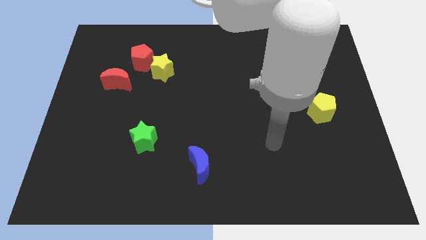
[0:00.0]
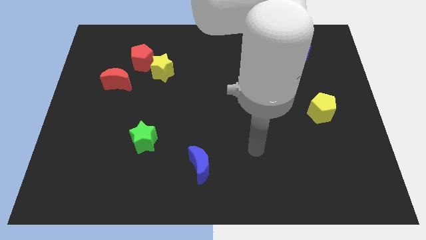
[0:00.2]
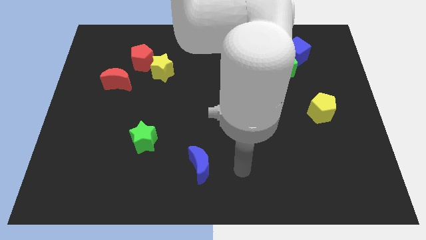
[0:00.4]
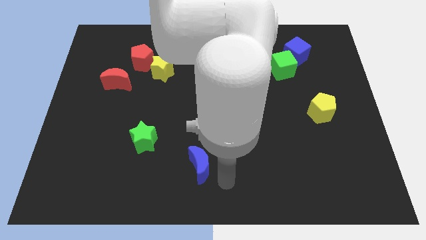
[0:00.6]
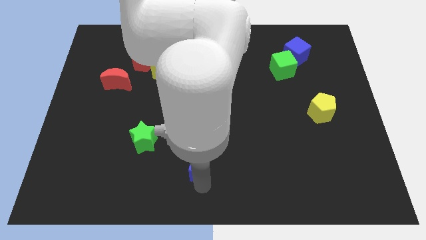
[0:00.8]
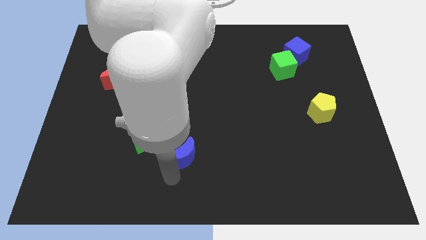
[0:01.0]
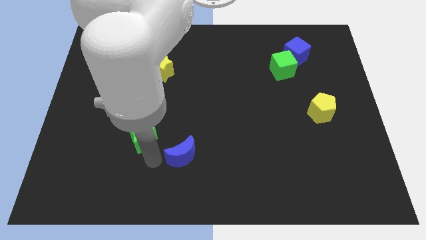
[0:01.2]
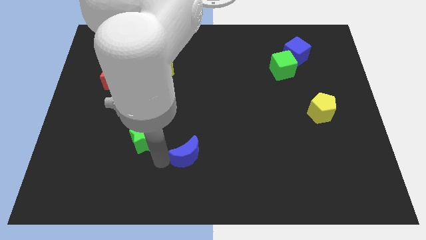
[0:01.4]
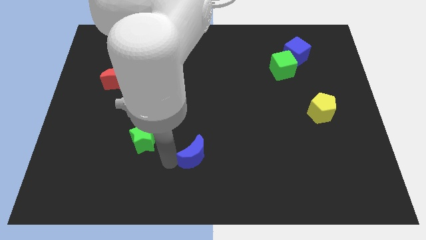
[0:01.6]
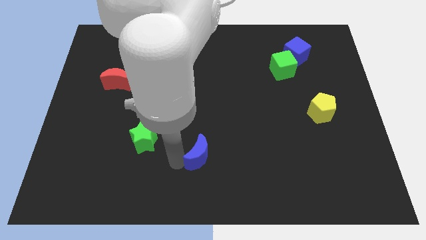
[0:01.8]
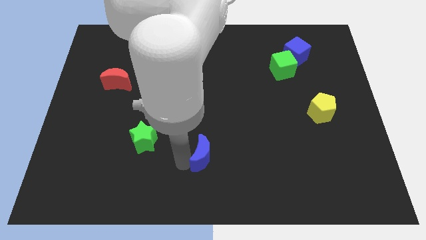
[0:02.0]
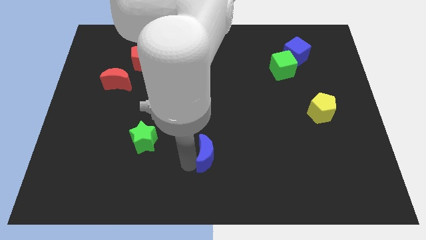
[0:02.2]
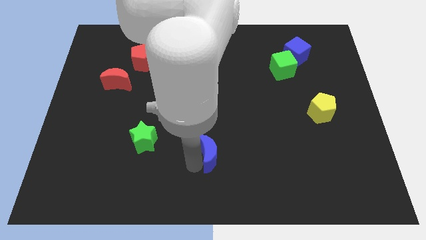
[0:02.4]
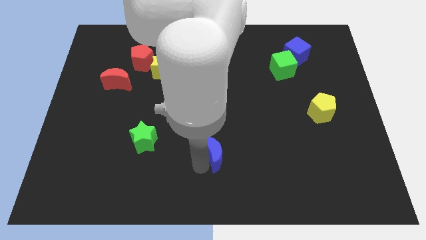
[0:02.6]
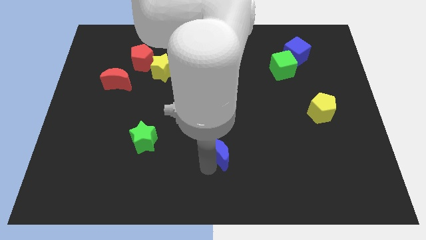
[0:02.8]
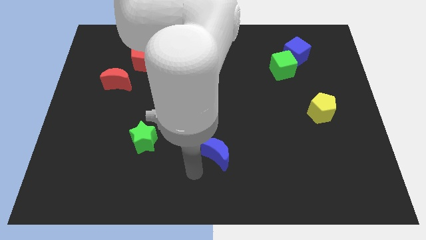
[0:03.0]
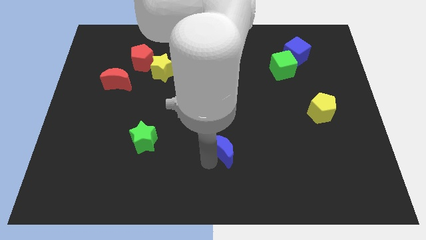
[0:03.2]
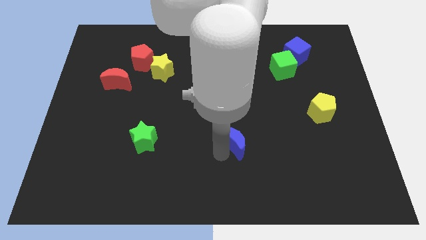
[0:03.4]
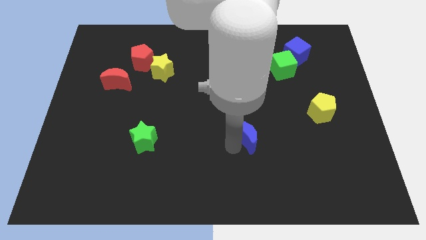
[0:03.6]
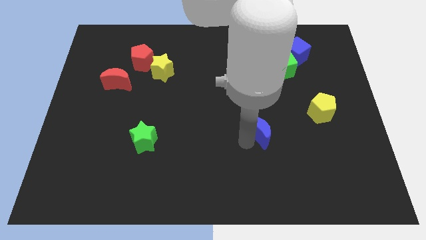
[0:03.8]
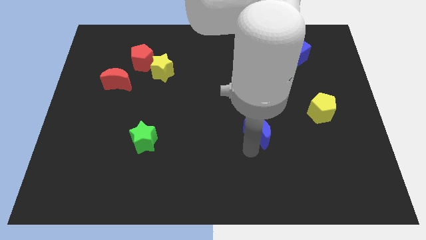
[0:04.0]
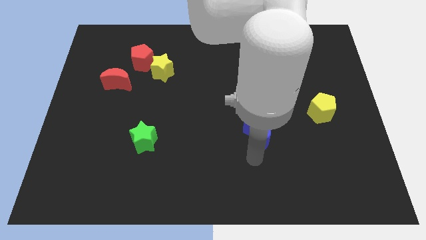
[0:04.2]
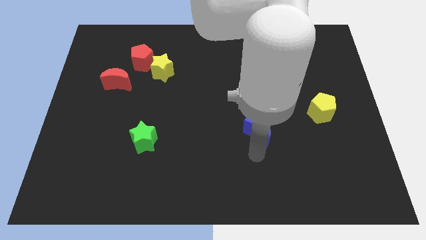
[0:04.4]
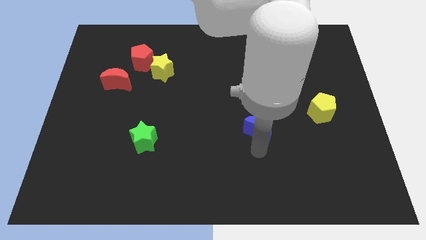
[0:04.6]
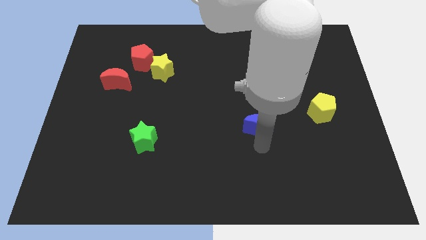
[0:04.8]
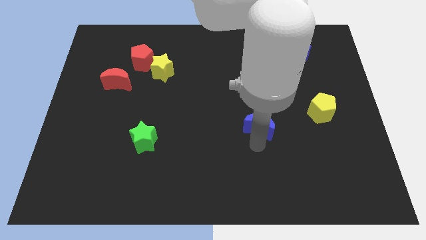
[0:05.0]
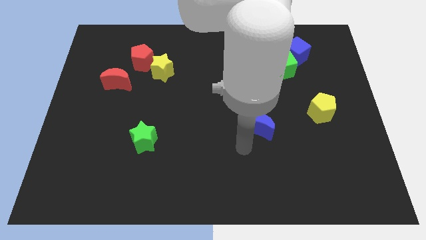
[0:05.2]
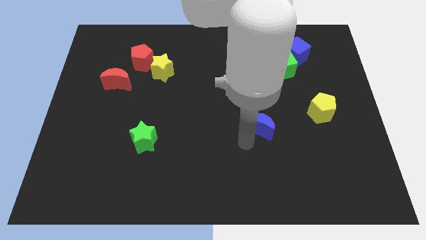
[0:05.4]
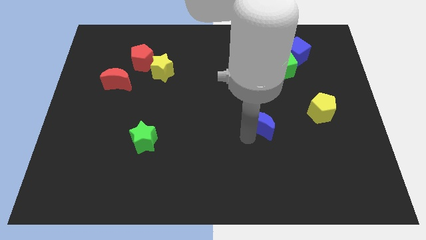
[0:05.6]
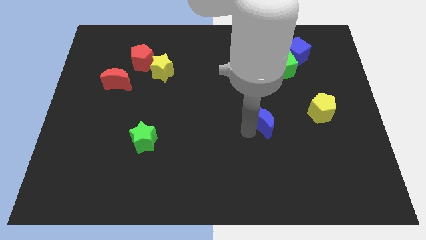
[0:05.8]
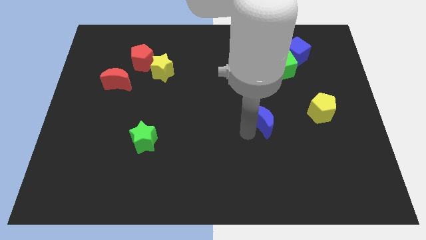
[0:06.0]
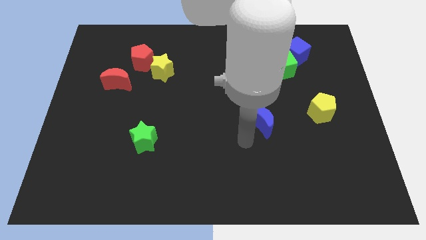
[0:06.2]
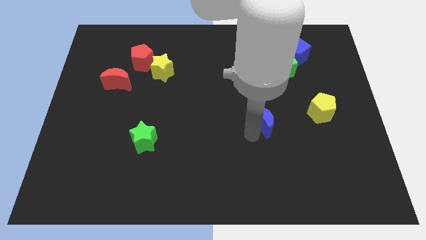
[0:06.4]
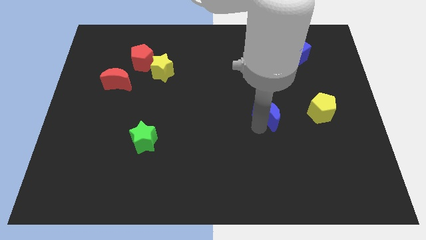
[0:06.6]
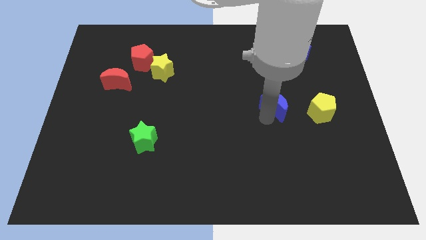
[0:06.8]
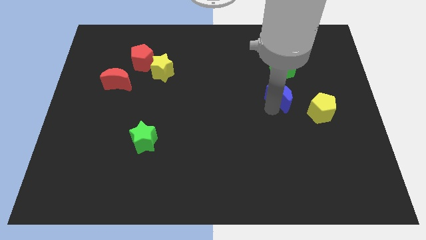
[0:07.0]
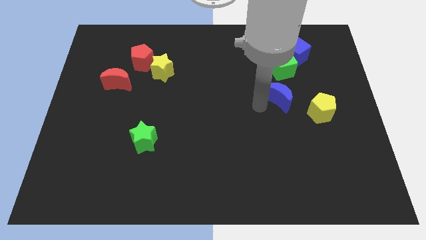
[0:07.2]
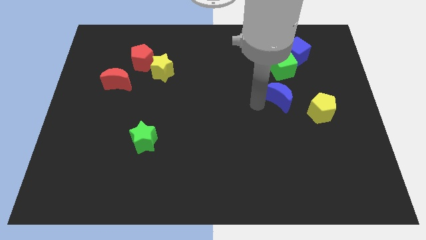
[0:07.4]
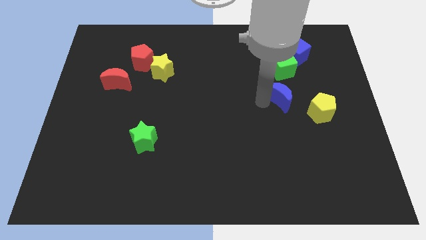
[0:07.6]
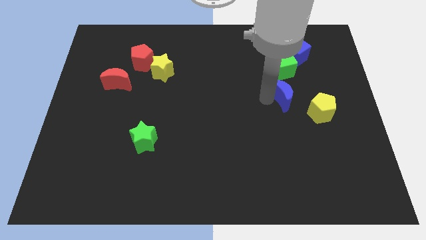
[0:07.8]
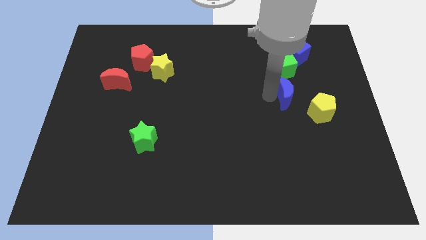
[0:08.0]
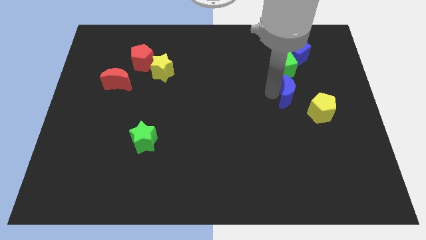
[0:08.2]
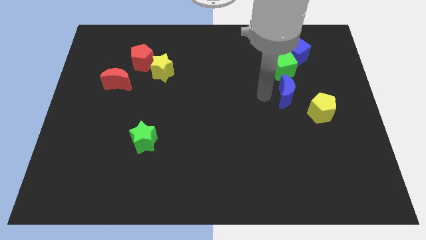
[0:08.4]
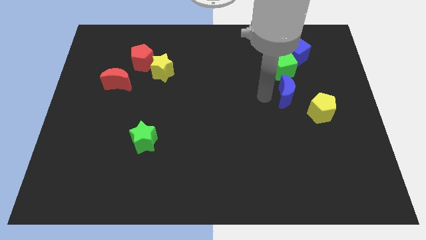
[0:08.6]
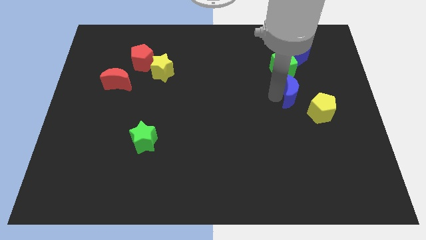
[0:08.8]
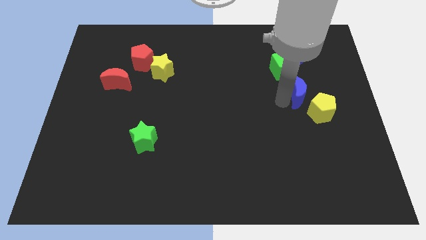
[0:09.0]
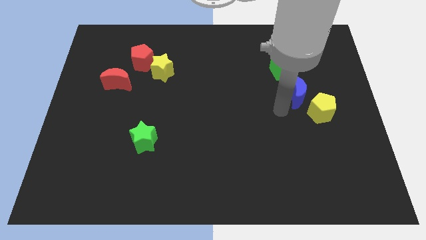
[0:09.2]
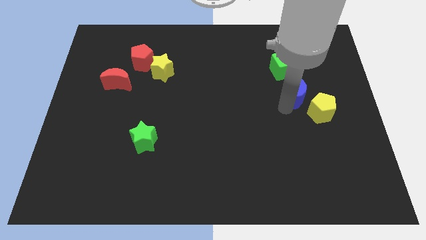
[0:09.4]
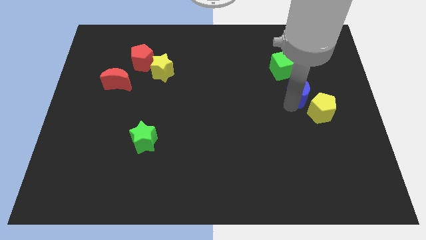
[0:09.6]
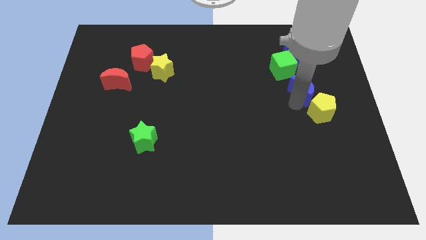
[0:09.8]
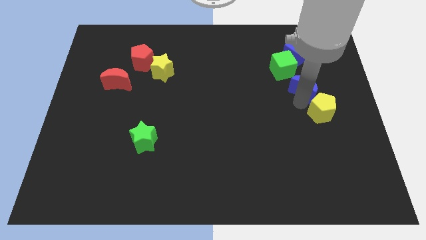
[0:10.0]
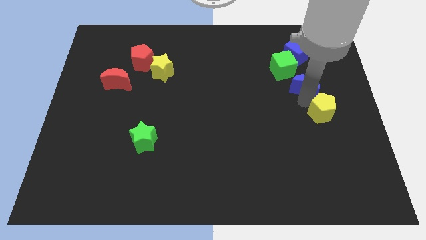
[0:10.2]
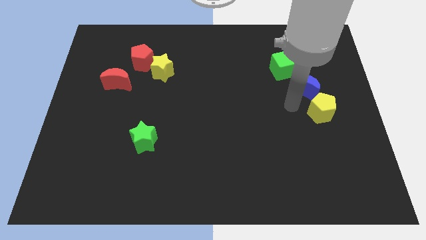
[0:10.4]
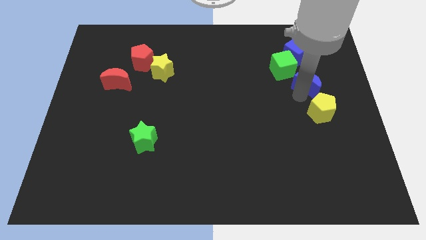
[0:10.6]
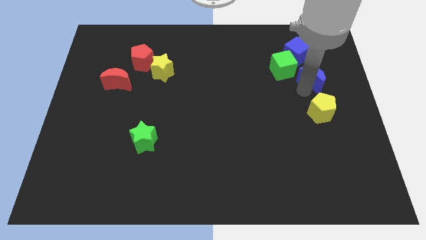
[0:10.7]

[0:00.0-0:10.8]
put the blue moon just right of the green cube

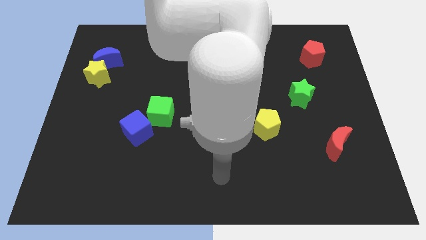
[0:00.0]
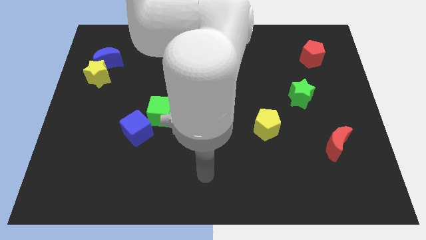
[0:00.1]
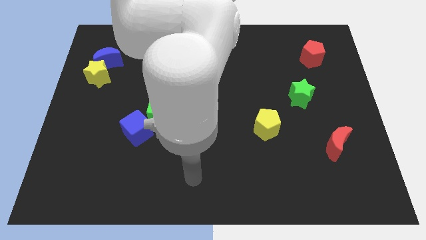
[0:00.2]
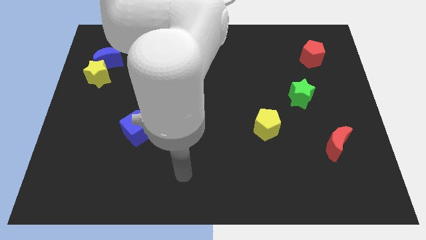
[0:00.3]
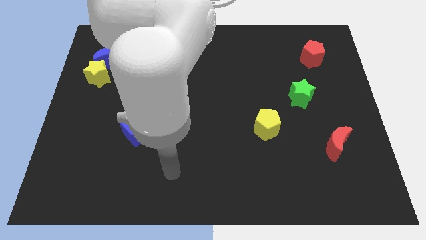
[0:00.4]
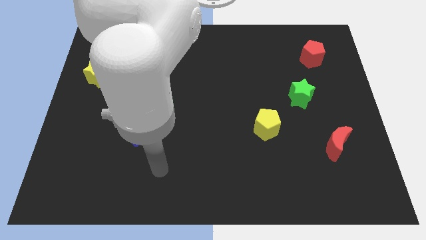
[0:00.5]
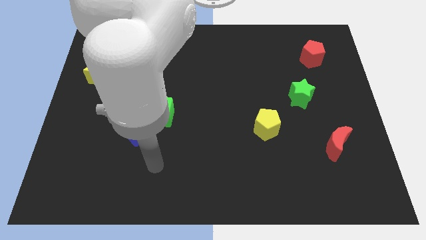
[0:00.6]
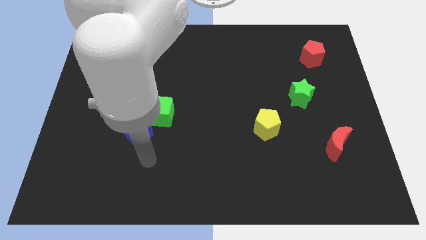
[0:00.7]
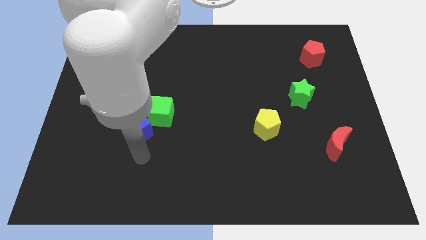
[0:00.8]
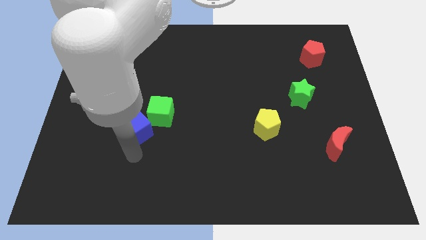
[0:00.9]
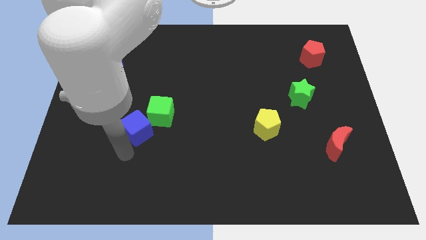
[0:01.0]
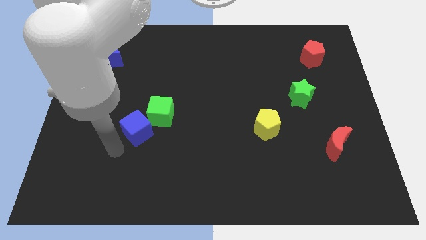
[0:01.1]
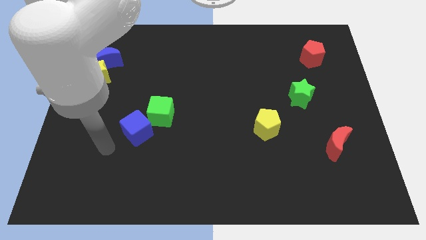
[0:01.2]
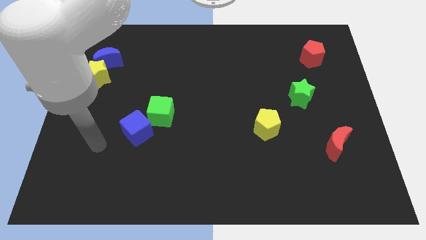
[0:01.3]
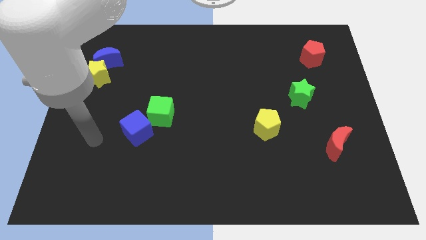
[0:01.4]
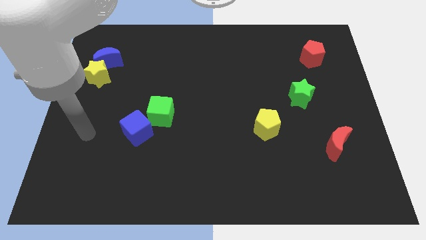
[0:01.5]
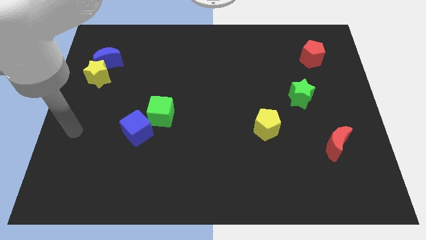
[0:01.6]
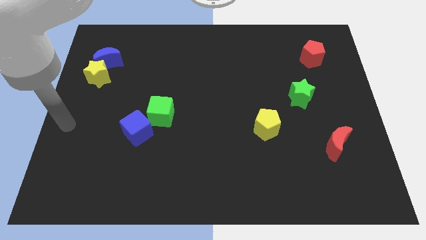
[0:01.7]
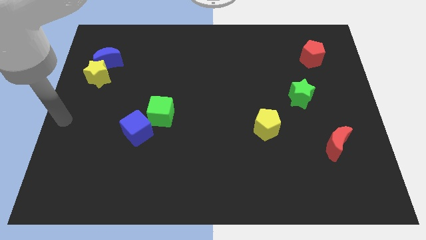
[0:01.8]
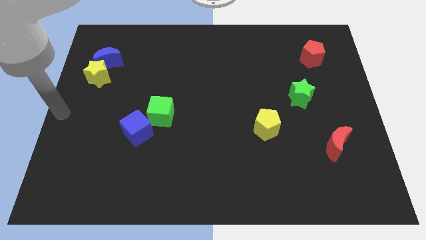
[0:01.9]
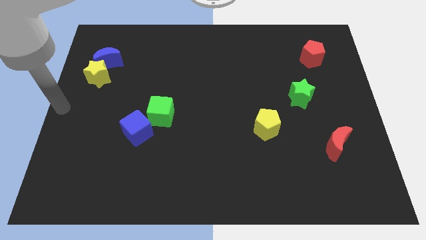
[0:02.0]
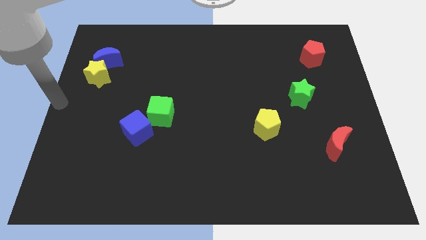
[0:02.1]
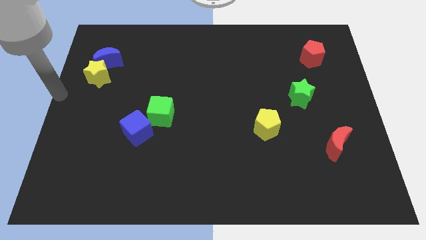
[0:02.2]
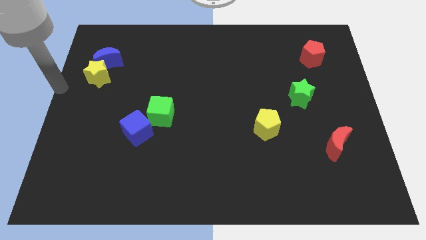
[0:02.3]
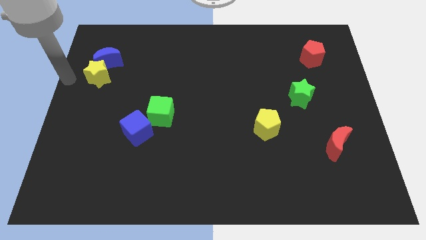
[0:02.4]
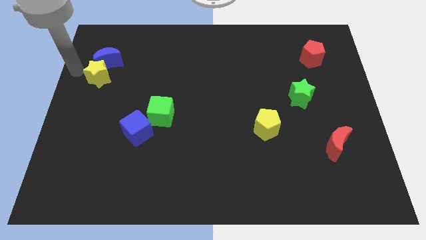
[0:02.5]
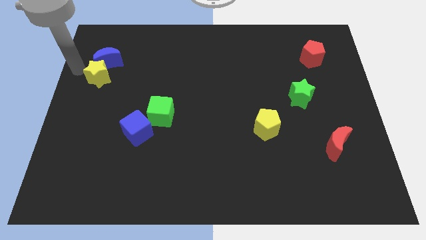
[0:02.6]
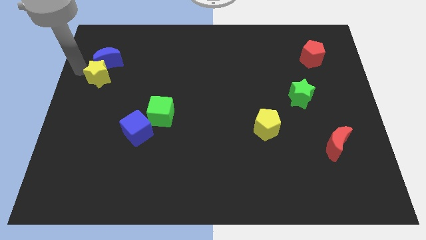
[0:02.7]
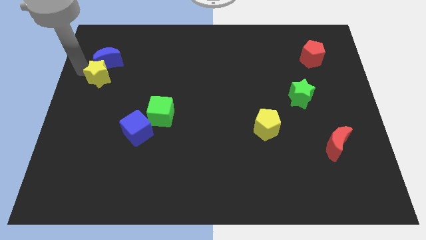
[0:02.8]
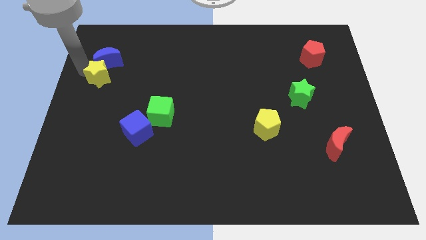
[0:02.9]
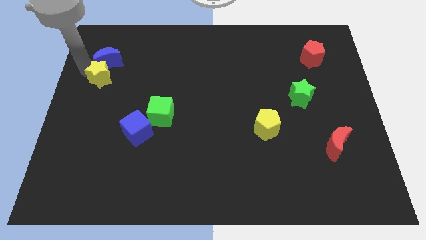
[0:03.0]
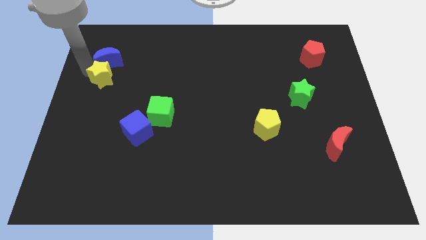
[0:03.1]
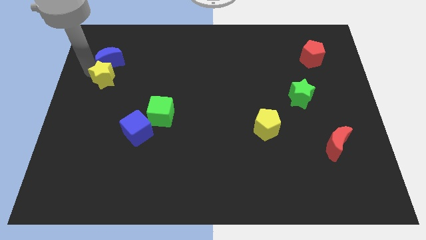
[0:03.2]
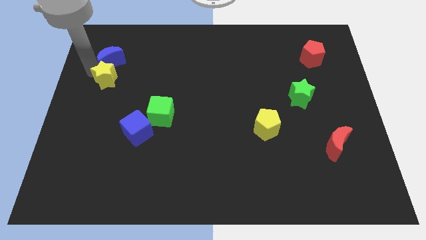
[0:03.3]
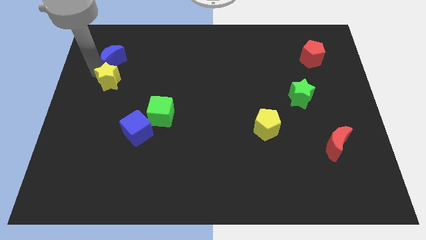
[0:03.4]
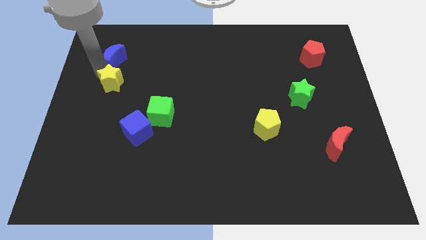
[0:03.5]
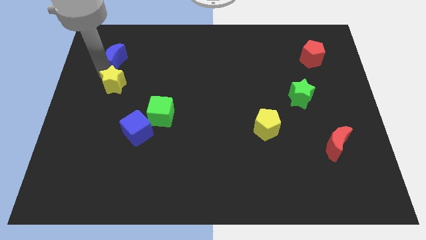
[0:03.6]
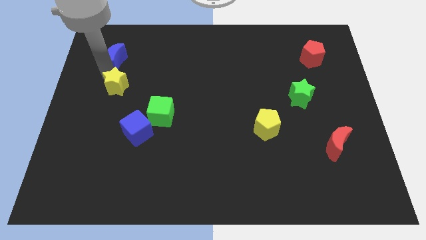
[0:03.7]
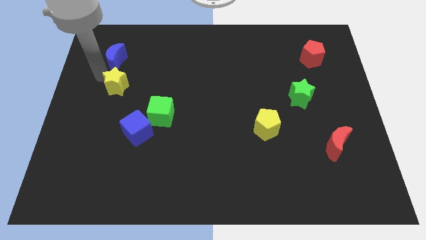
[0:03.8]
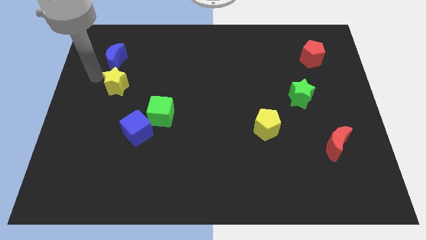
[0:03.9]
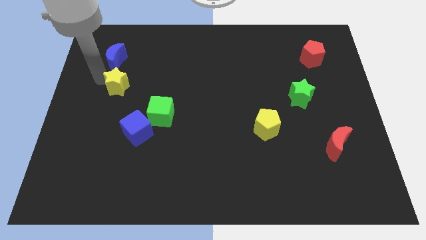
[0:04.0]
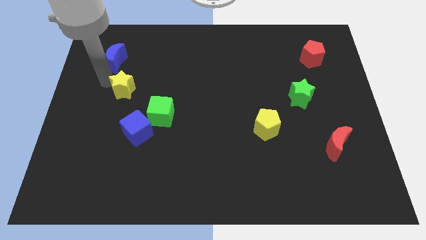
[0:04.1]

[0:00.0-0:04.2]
move the yellow star to the top left side of the green cube
